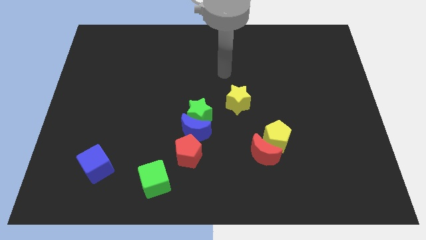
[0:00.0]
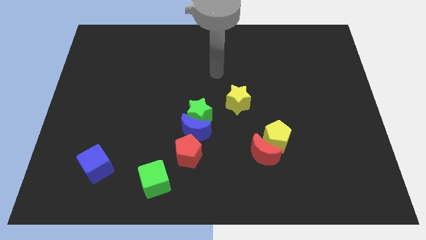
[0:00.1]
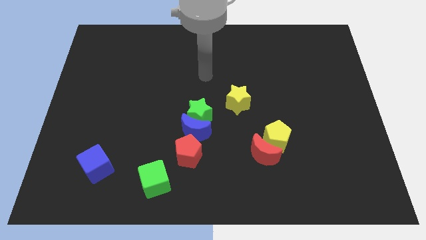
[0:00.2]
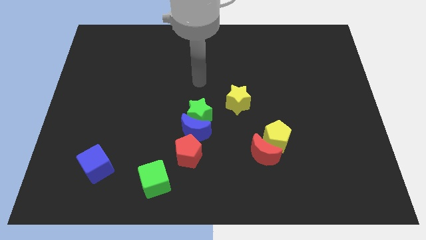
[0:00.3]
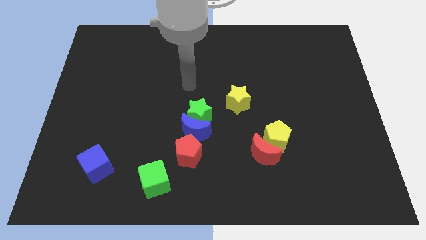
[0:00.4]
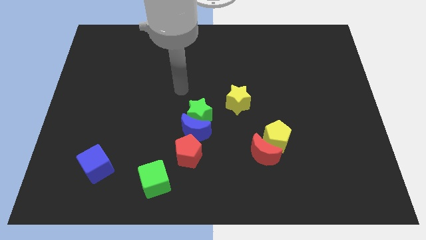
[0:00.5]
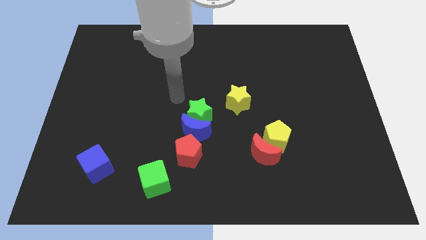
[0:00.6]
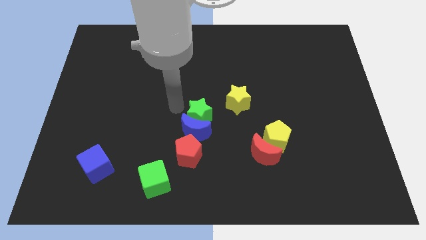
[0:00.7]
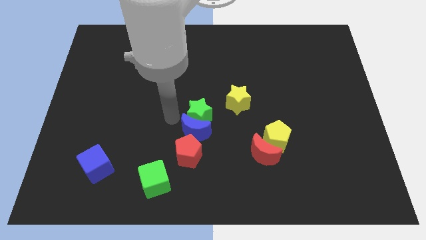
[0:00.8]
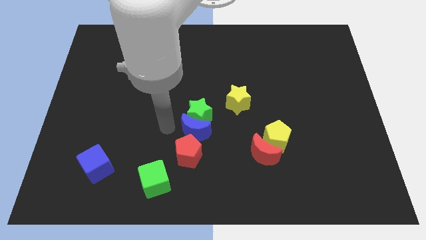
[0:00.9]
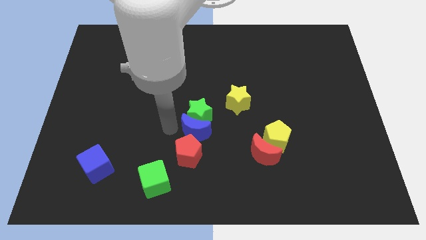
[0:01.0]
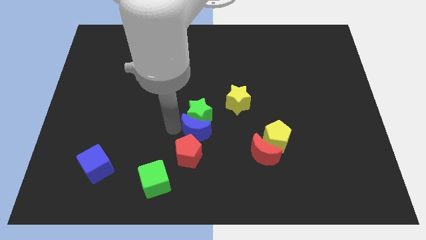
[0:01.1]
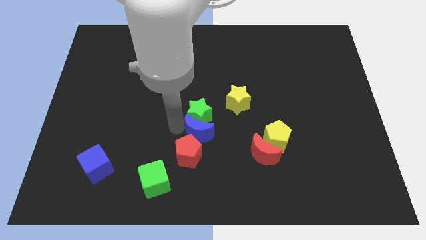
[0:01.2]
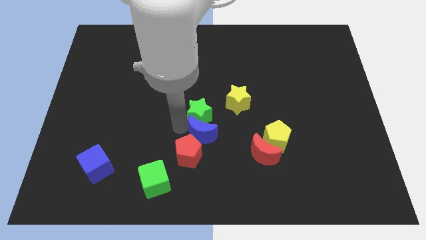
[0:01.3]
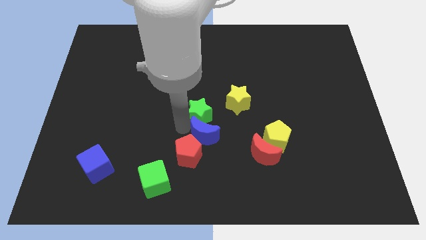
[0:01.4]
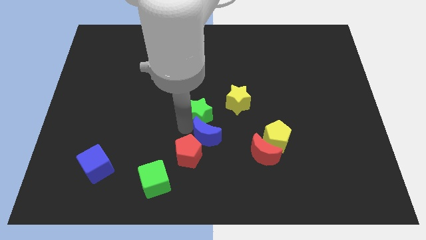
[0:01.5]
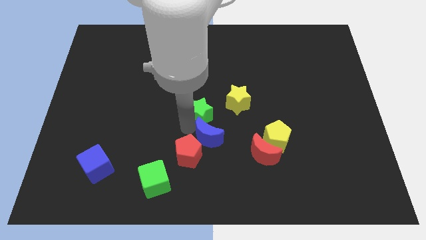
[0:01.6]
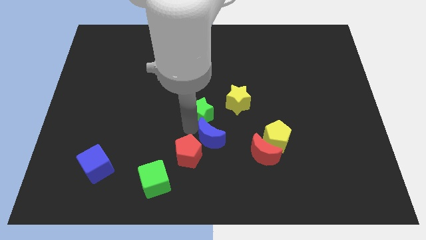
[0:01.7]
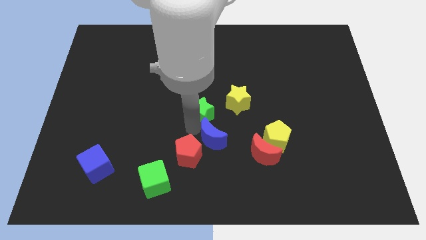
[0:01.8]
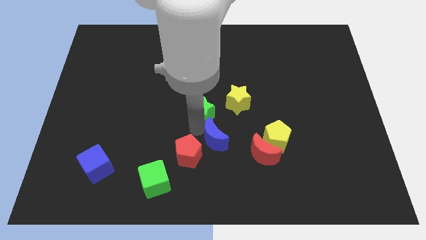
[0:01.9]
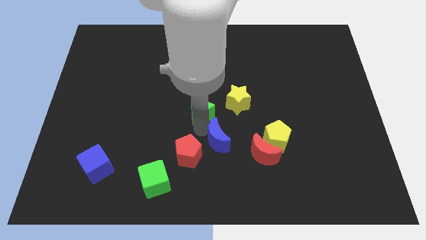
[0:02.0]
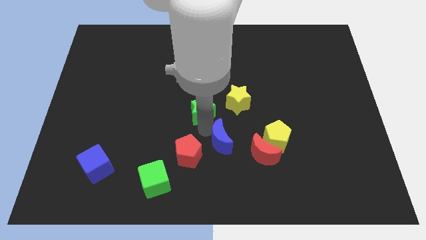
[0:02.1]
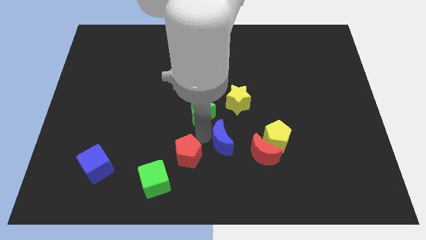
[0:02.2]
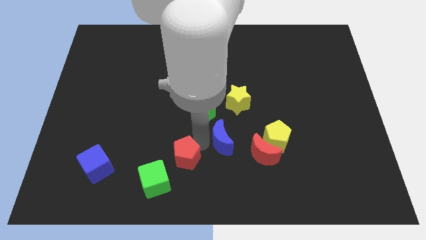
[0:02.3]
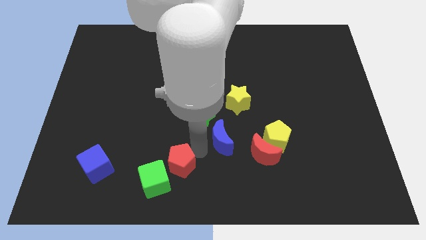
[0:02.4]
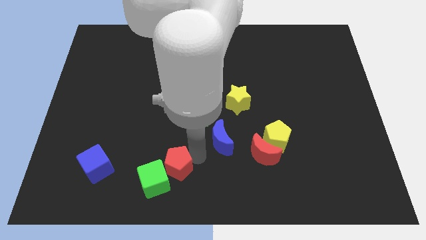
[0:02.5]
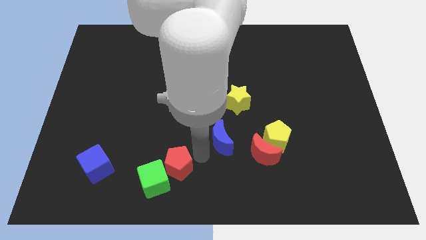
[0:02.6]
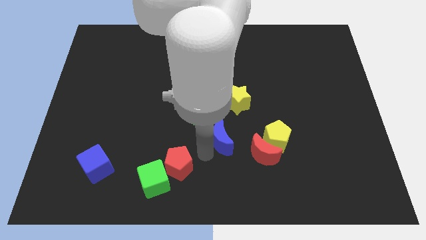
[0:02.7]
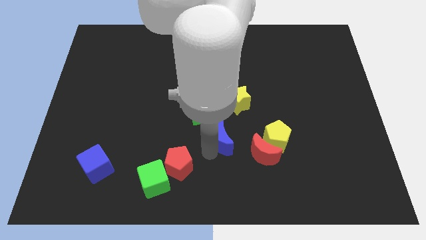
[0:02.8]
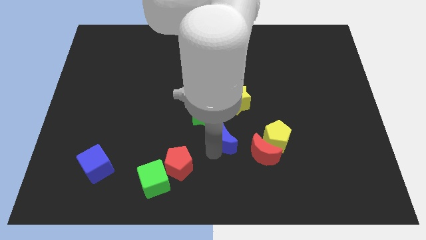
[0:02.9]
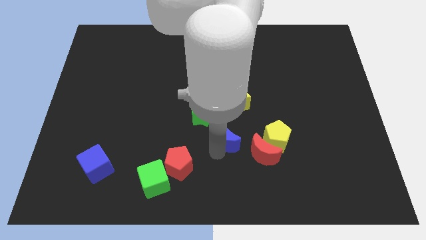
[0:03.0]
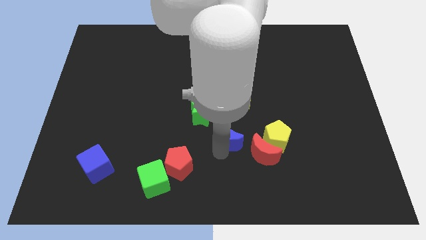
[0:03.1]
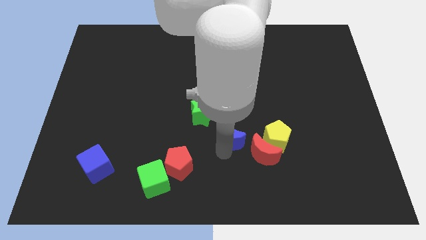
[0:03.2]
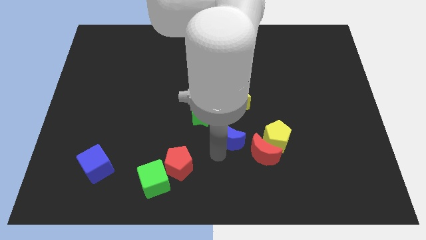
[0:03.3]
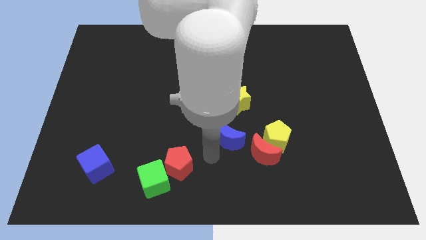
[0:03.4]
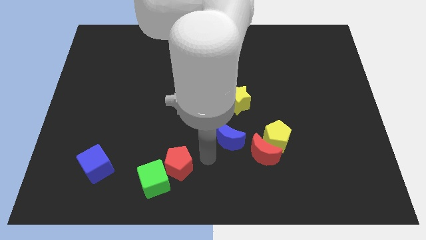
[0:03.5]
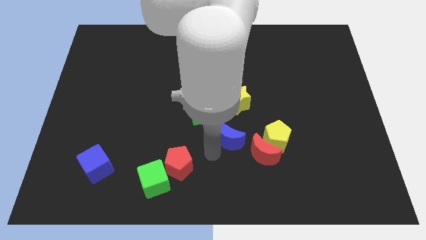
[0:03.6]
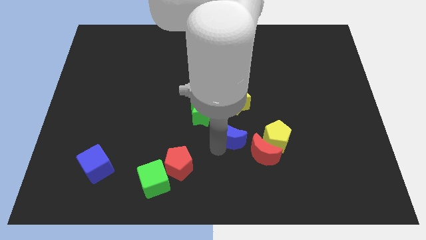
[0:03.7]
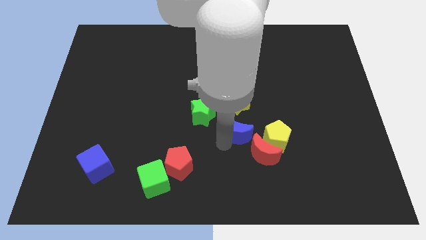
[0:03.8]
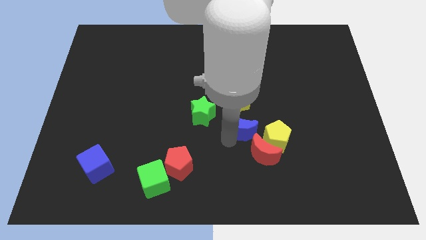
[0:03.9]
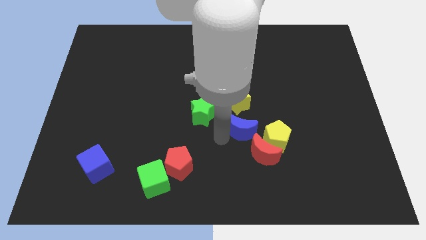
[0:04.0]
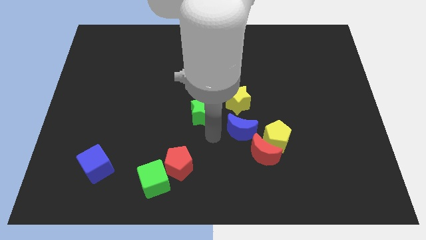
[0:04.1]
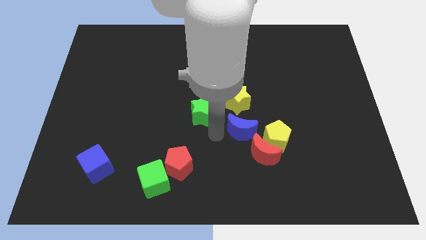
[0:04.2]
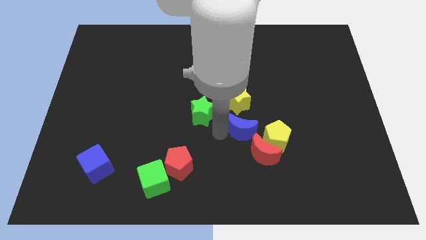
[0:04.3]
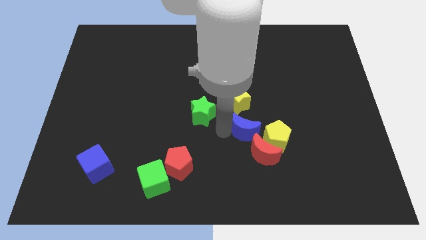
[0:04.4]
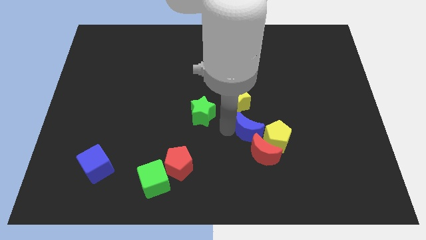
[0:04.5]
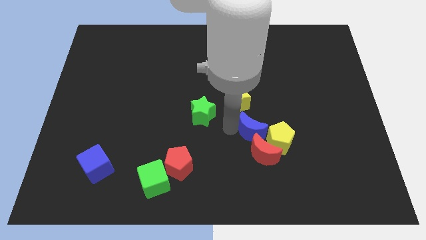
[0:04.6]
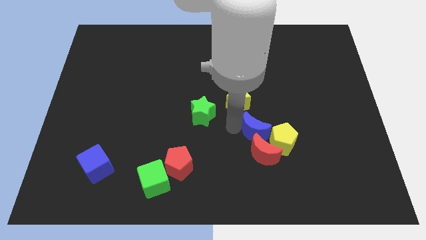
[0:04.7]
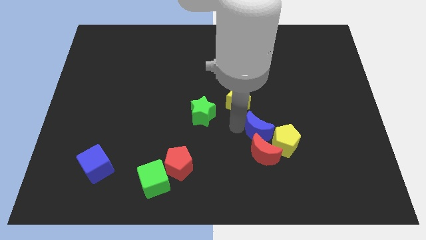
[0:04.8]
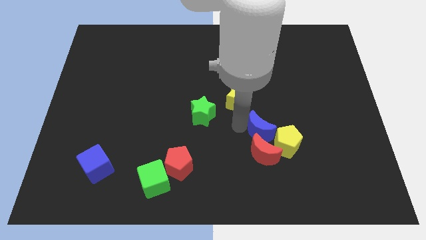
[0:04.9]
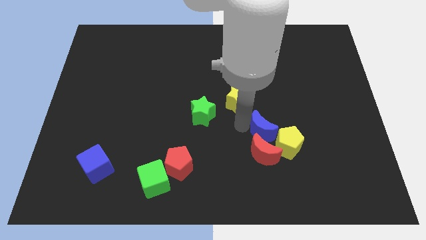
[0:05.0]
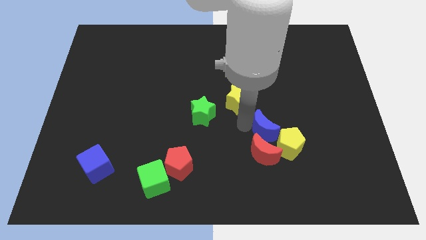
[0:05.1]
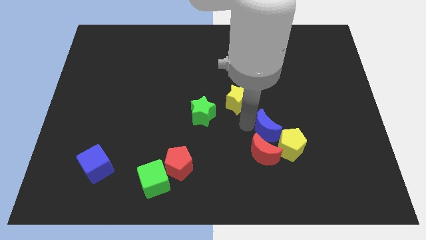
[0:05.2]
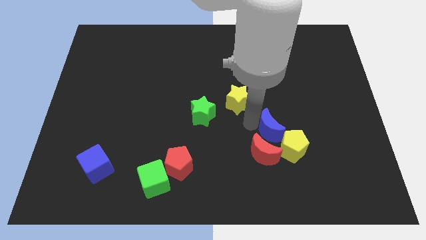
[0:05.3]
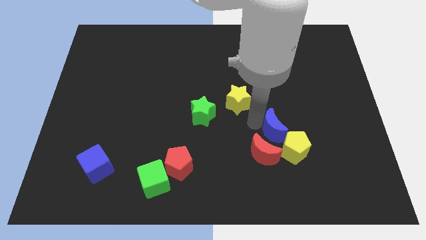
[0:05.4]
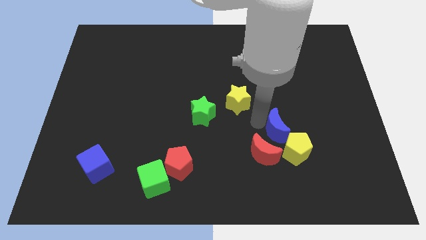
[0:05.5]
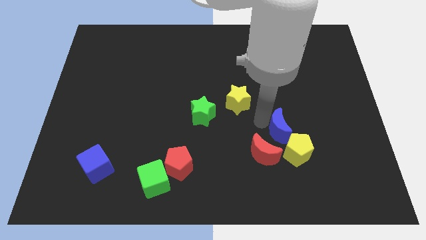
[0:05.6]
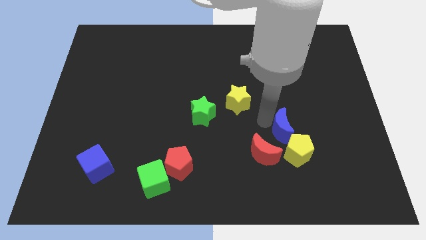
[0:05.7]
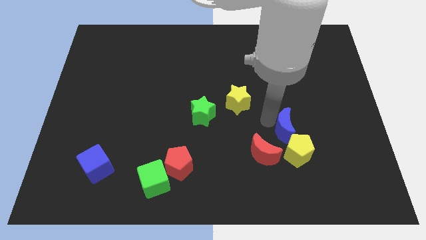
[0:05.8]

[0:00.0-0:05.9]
slide the blue moon right

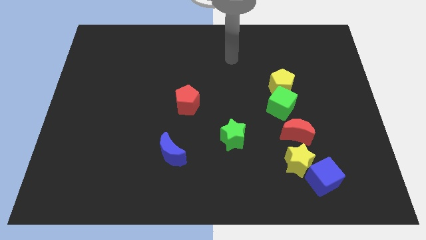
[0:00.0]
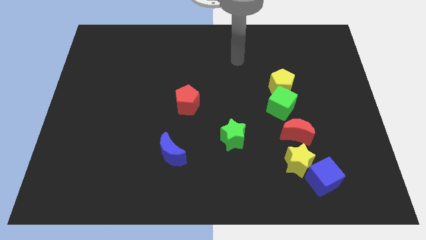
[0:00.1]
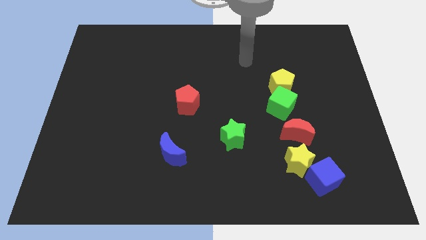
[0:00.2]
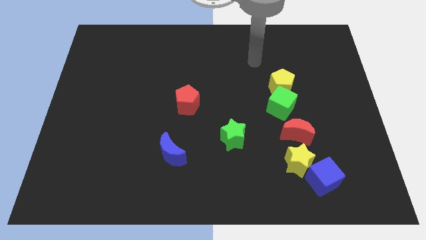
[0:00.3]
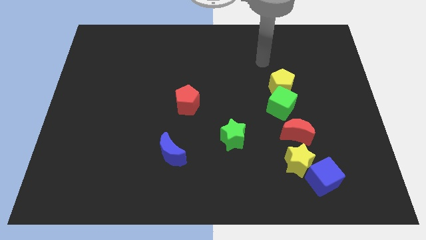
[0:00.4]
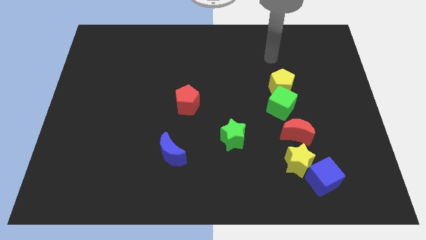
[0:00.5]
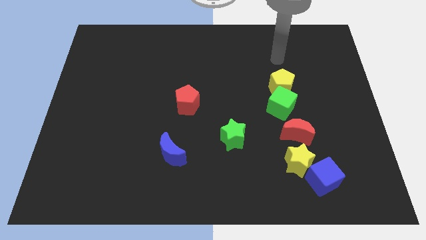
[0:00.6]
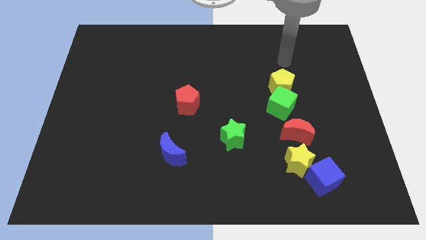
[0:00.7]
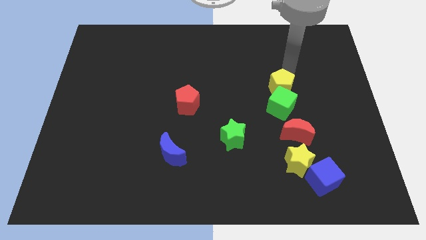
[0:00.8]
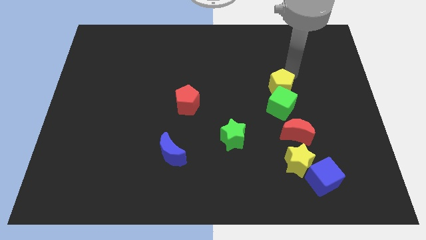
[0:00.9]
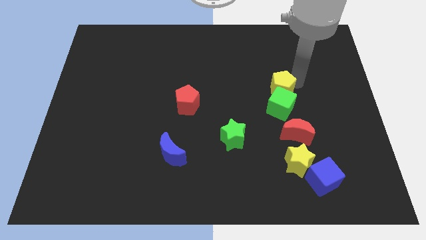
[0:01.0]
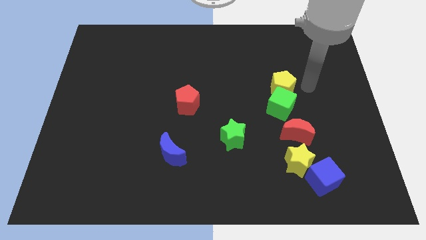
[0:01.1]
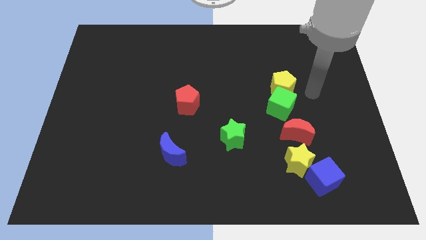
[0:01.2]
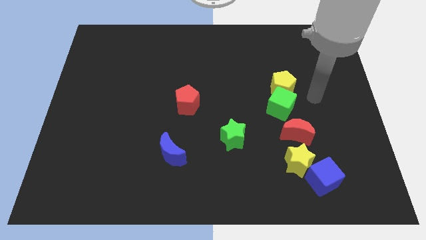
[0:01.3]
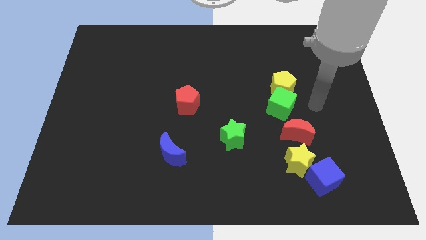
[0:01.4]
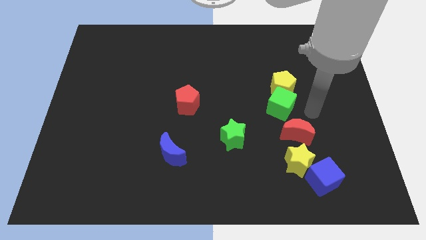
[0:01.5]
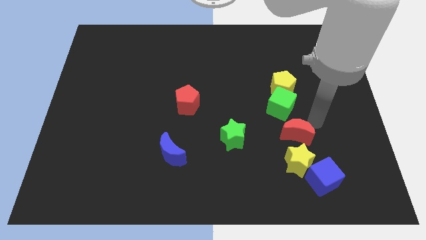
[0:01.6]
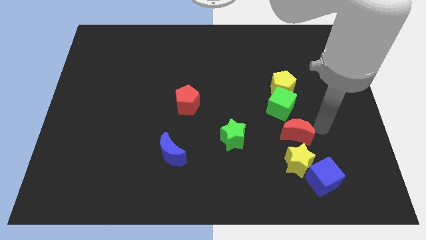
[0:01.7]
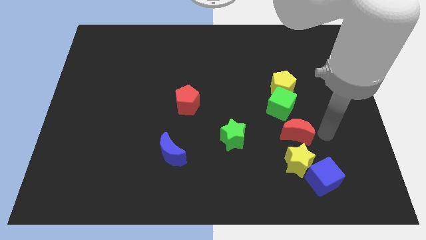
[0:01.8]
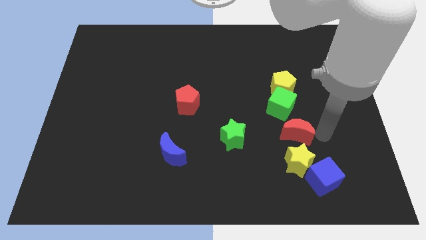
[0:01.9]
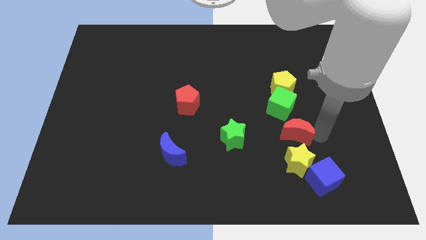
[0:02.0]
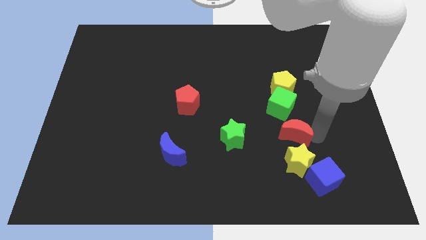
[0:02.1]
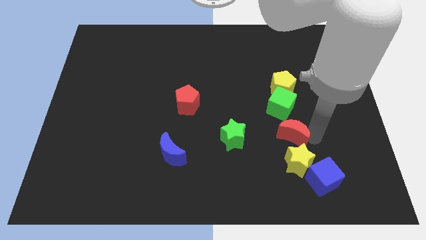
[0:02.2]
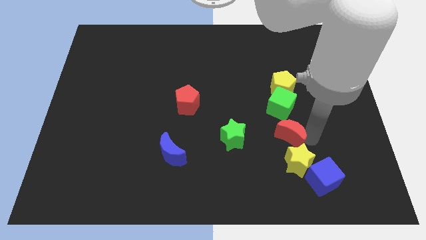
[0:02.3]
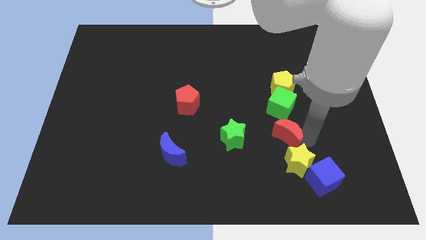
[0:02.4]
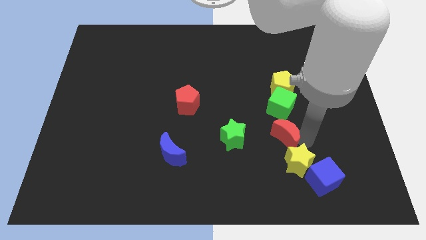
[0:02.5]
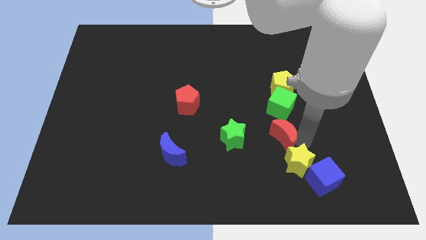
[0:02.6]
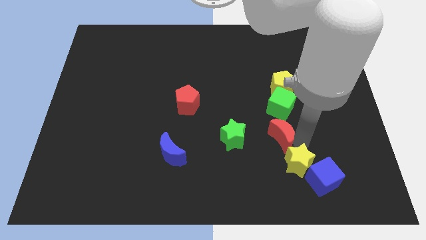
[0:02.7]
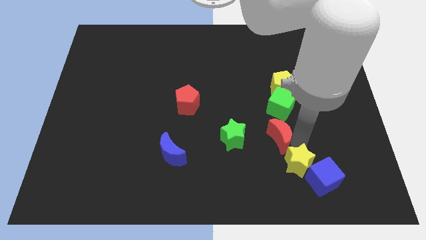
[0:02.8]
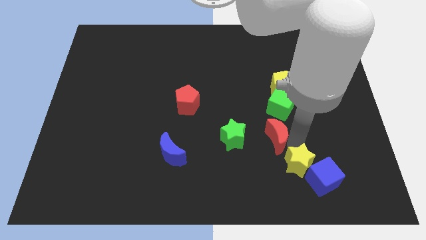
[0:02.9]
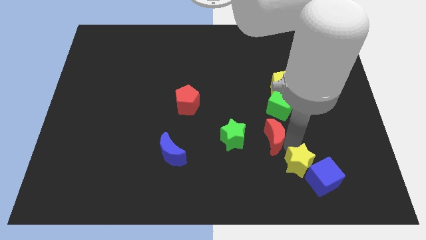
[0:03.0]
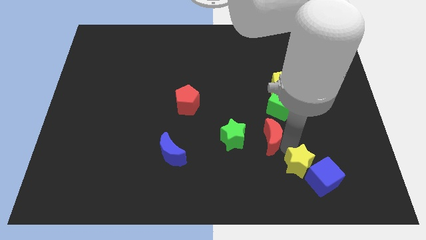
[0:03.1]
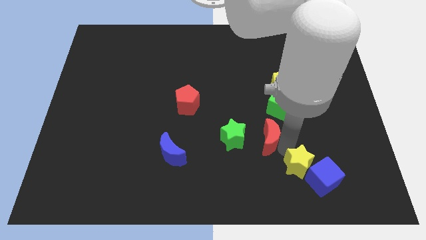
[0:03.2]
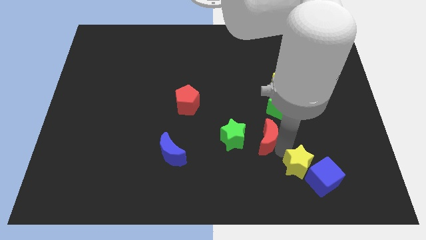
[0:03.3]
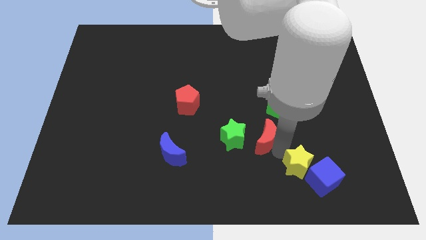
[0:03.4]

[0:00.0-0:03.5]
slightly push the red moon left
